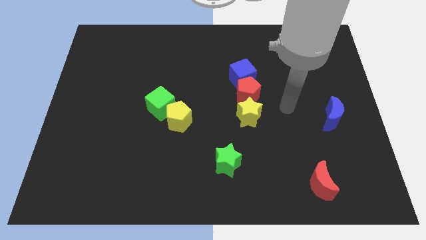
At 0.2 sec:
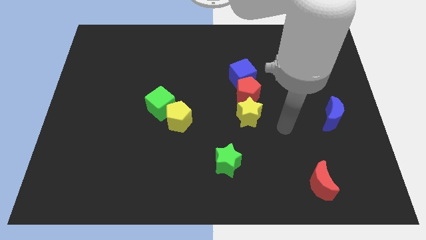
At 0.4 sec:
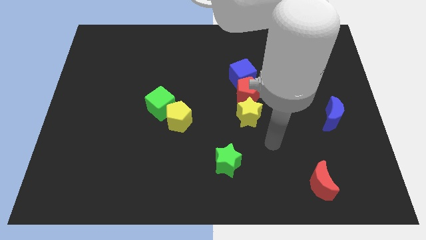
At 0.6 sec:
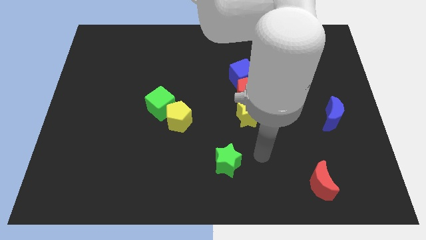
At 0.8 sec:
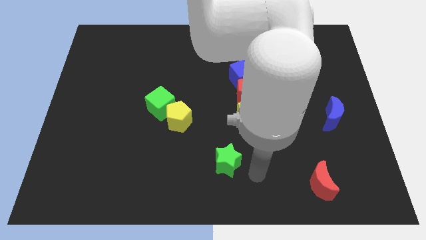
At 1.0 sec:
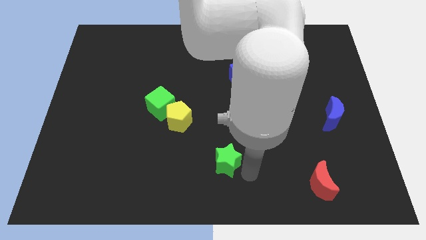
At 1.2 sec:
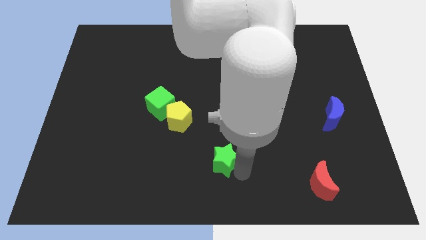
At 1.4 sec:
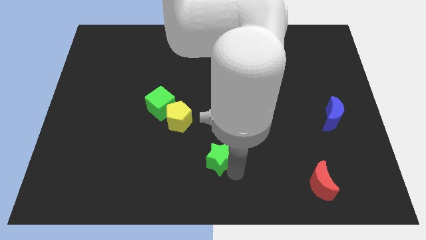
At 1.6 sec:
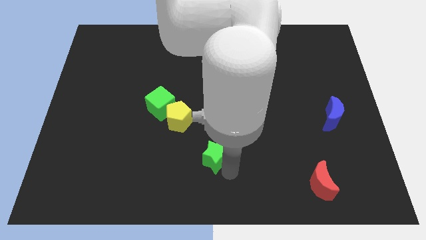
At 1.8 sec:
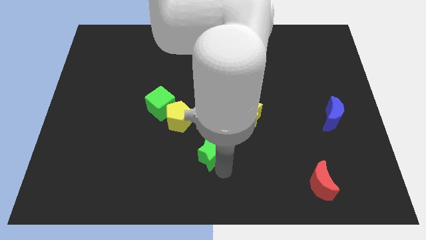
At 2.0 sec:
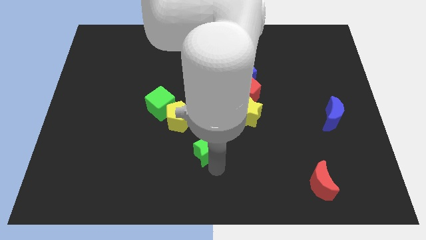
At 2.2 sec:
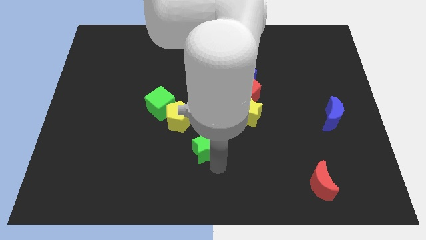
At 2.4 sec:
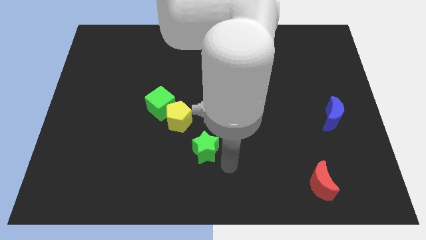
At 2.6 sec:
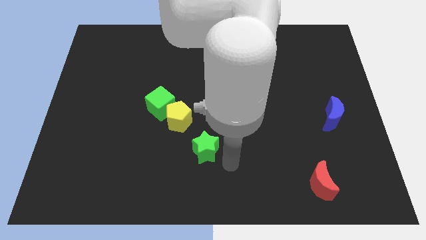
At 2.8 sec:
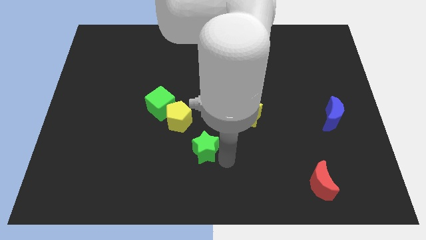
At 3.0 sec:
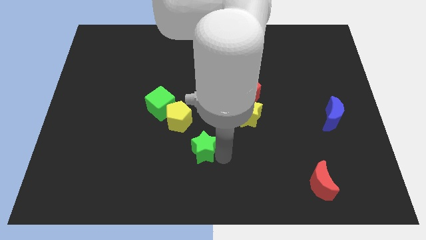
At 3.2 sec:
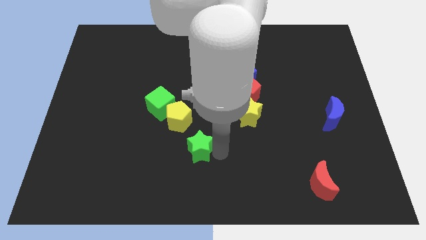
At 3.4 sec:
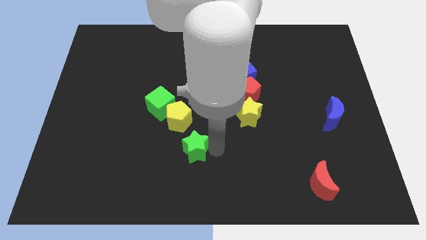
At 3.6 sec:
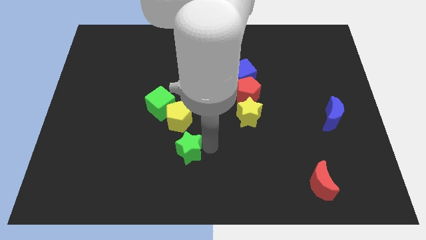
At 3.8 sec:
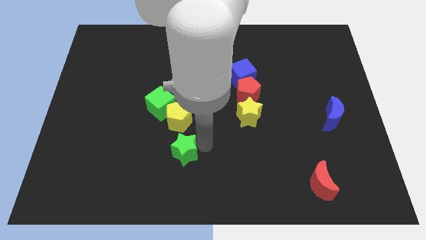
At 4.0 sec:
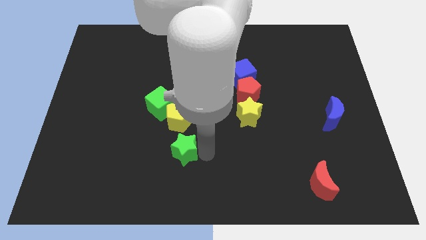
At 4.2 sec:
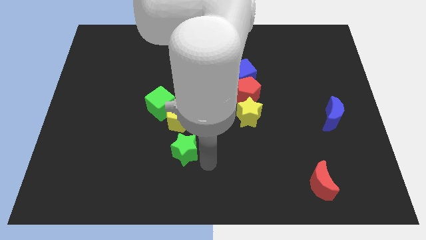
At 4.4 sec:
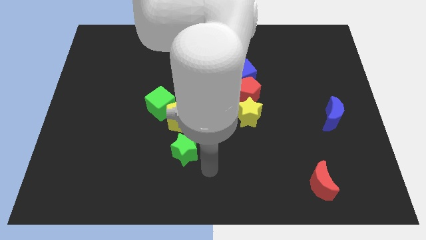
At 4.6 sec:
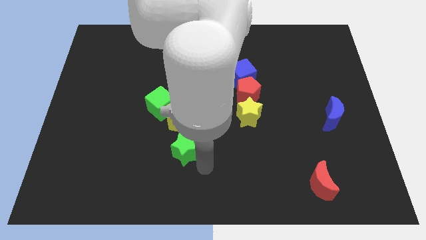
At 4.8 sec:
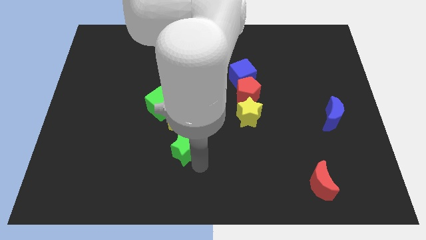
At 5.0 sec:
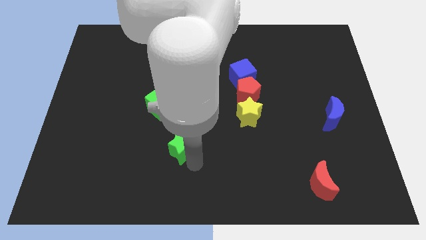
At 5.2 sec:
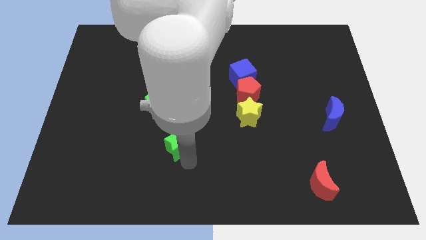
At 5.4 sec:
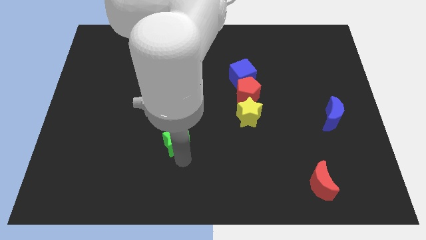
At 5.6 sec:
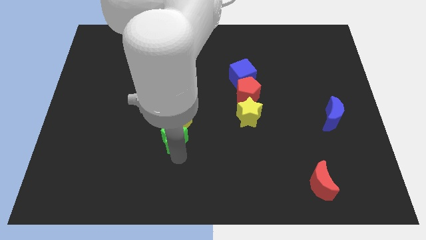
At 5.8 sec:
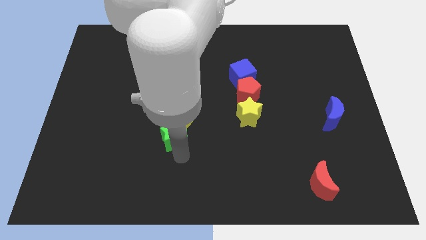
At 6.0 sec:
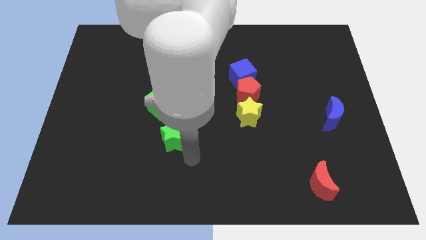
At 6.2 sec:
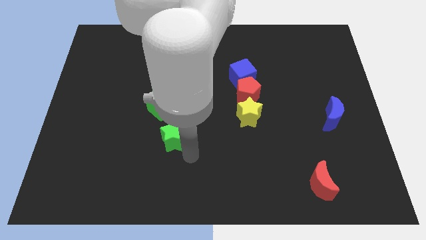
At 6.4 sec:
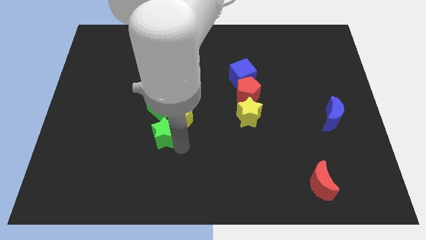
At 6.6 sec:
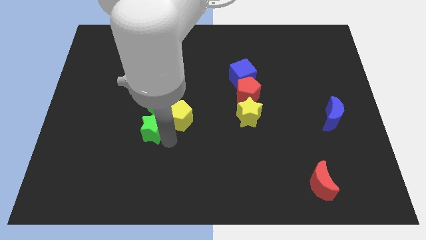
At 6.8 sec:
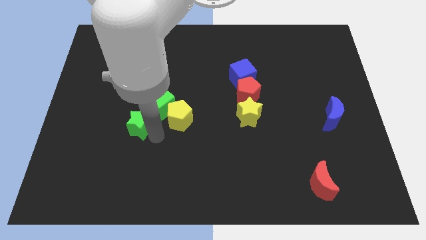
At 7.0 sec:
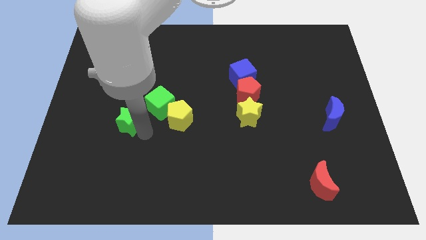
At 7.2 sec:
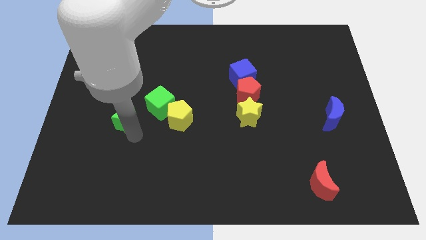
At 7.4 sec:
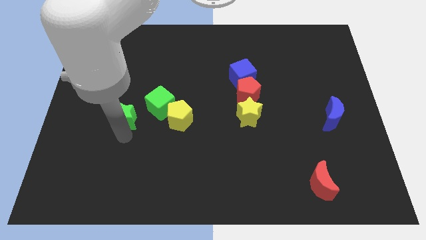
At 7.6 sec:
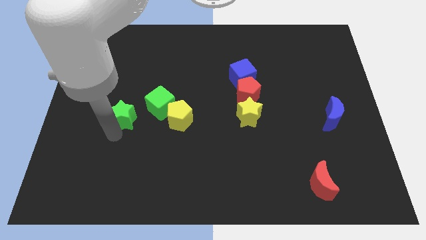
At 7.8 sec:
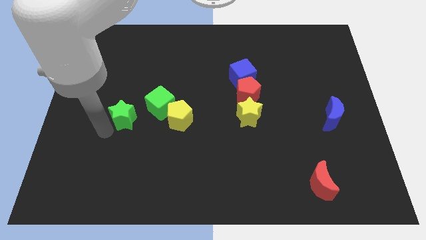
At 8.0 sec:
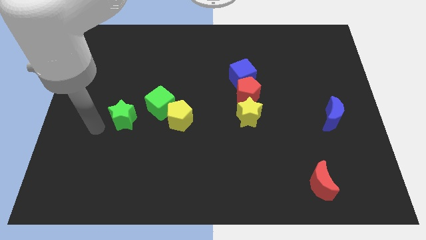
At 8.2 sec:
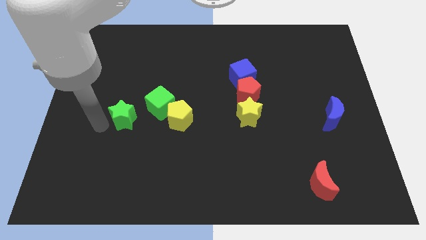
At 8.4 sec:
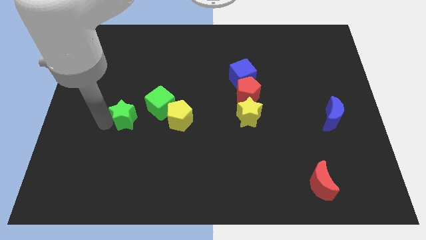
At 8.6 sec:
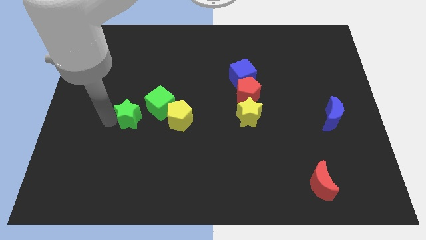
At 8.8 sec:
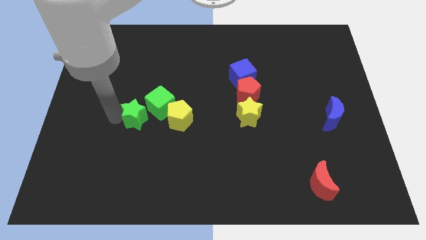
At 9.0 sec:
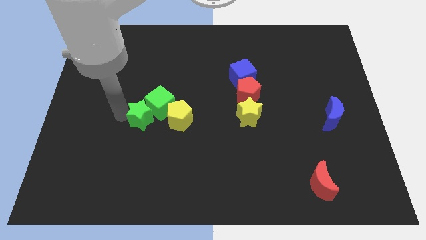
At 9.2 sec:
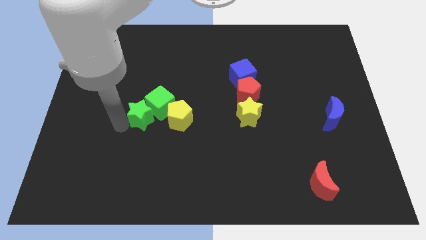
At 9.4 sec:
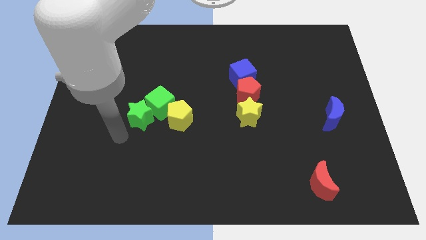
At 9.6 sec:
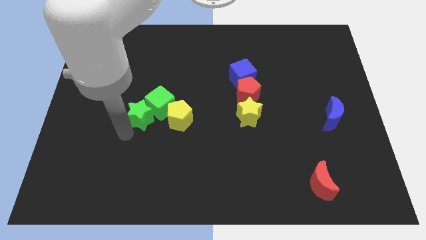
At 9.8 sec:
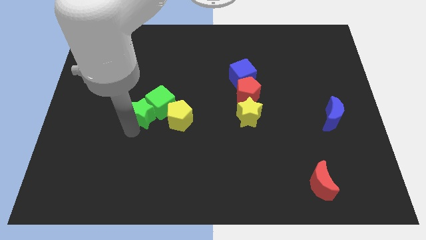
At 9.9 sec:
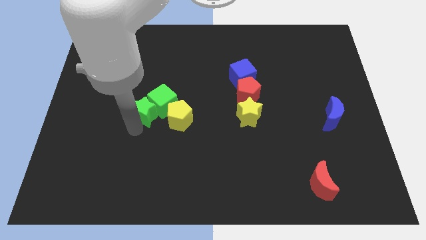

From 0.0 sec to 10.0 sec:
put the green star diagonally up and to the left of the yellow pentagon

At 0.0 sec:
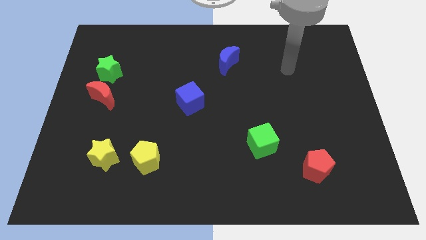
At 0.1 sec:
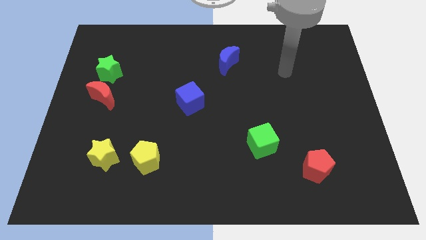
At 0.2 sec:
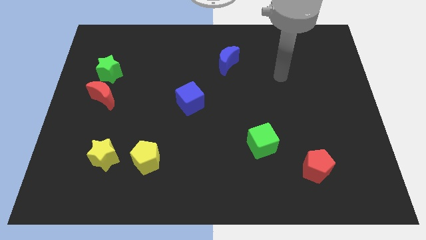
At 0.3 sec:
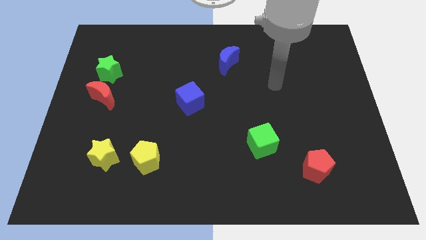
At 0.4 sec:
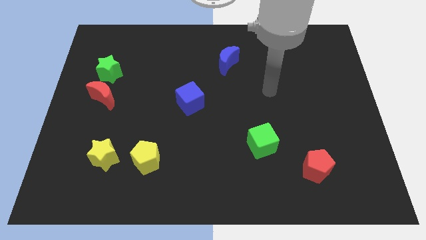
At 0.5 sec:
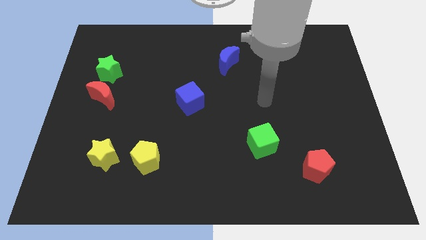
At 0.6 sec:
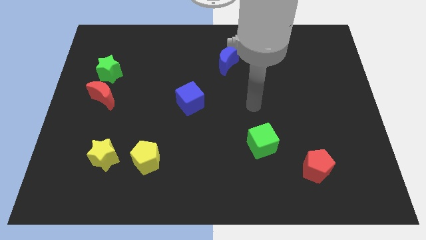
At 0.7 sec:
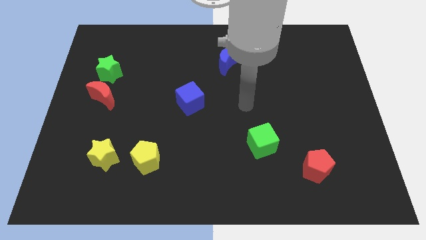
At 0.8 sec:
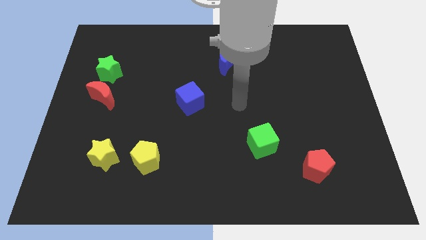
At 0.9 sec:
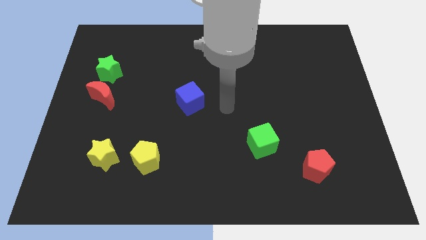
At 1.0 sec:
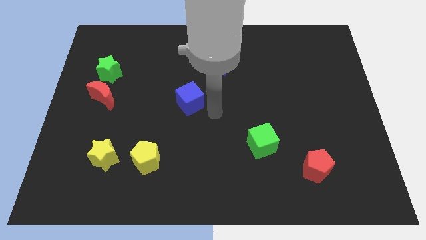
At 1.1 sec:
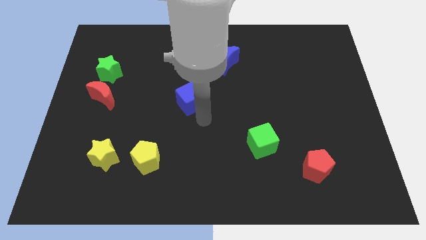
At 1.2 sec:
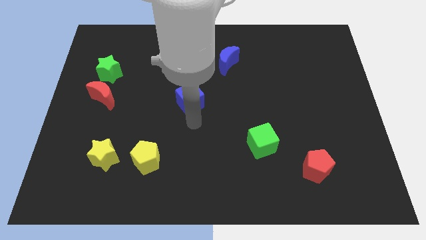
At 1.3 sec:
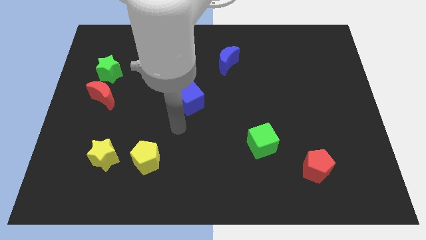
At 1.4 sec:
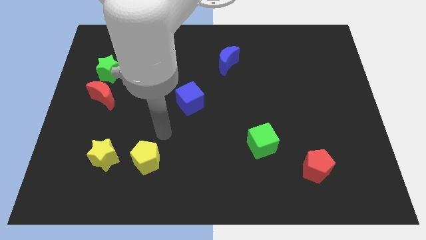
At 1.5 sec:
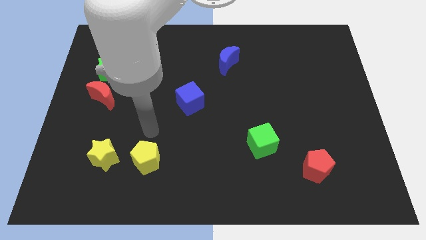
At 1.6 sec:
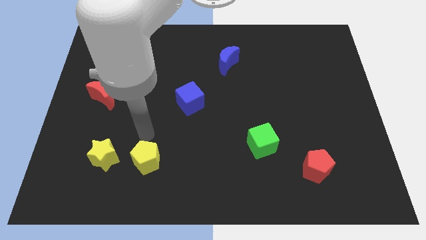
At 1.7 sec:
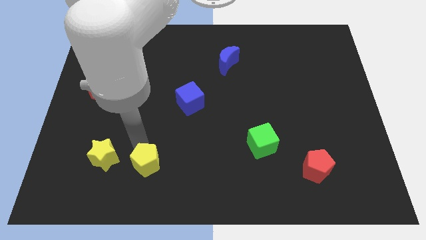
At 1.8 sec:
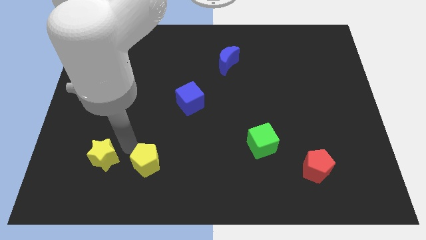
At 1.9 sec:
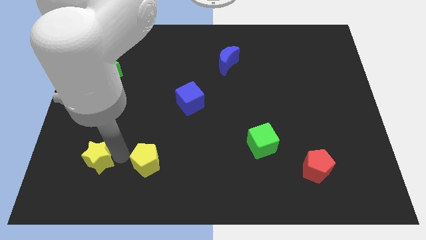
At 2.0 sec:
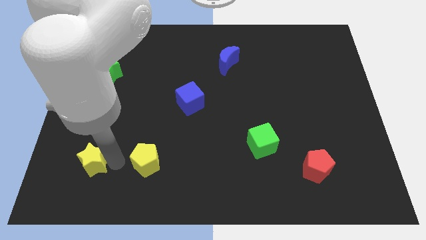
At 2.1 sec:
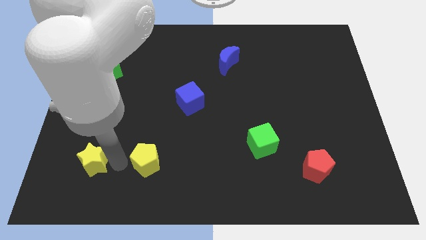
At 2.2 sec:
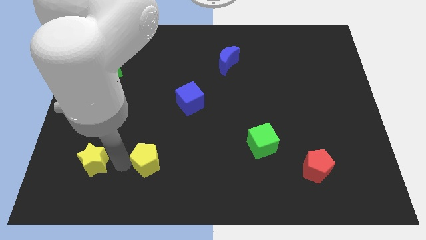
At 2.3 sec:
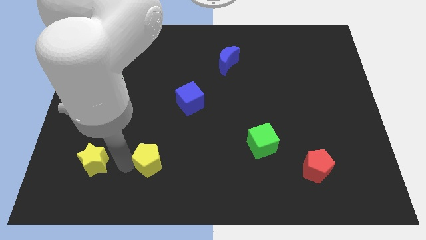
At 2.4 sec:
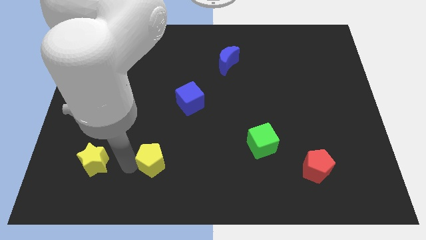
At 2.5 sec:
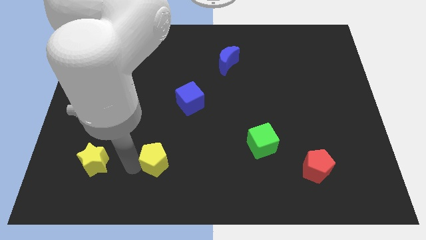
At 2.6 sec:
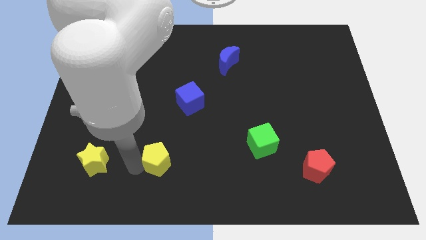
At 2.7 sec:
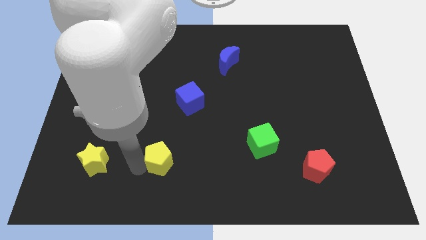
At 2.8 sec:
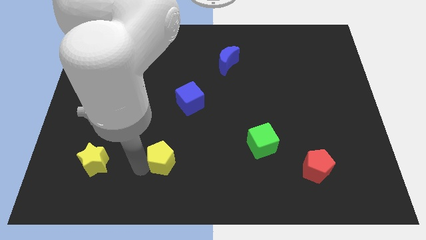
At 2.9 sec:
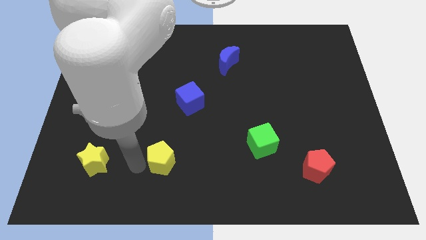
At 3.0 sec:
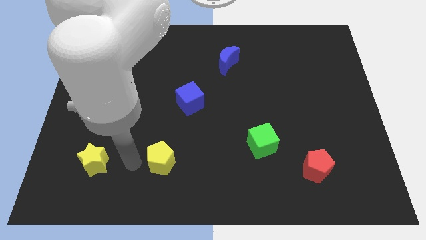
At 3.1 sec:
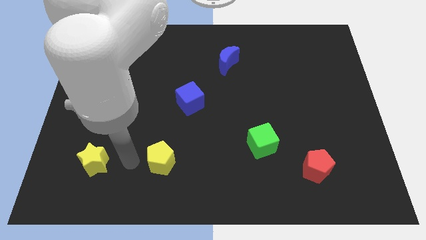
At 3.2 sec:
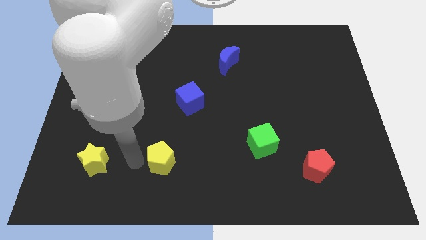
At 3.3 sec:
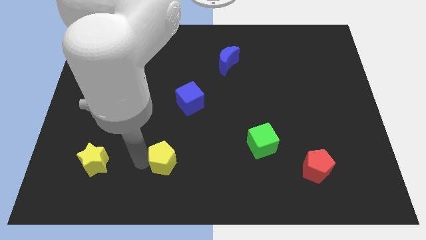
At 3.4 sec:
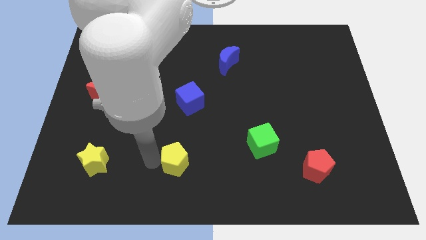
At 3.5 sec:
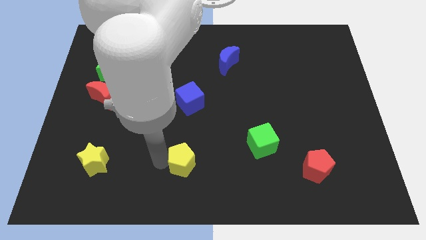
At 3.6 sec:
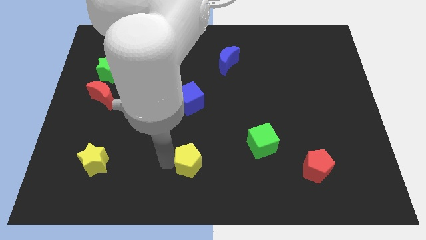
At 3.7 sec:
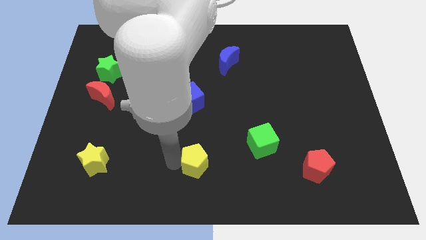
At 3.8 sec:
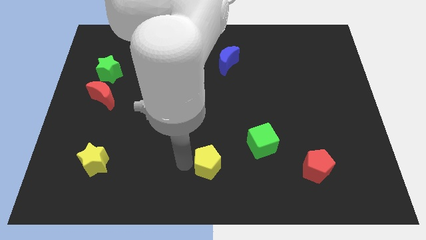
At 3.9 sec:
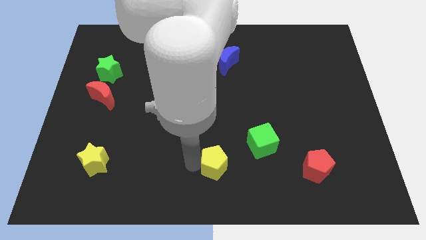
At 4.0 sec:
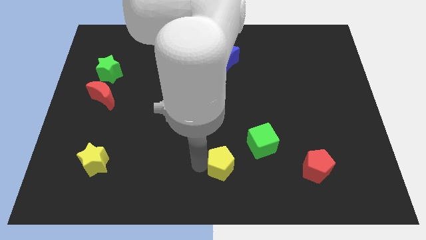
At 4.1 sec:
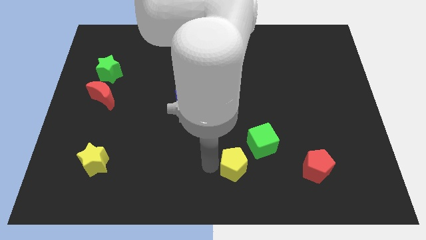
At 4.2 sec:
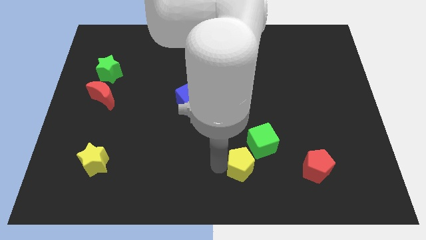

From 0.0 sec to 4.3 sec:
slide the yellow pentagon to the left side of the red pentagon
